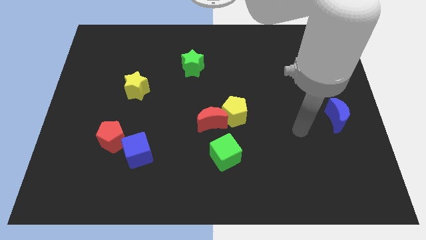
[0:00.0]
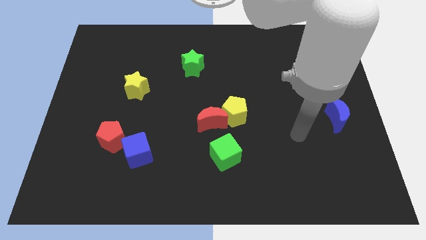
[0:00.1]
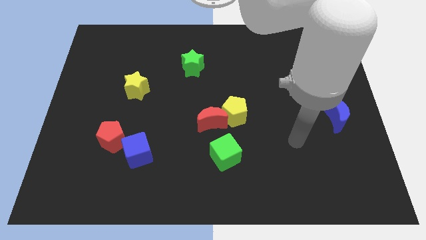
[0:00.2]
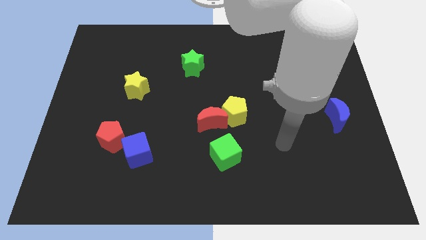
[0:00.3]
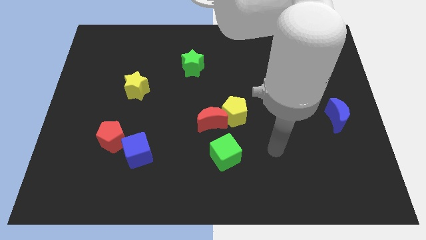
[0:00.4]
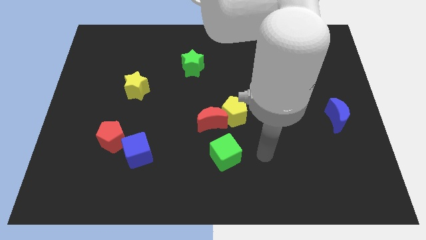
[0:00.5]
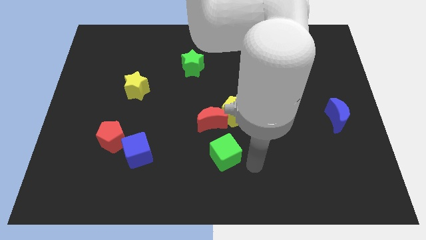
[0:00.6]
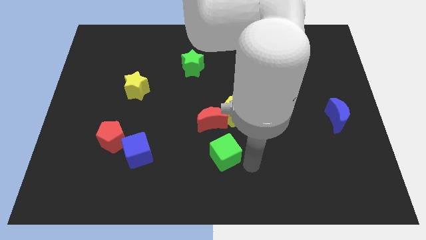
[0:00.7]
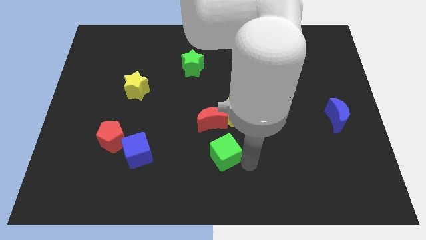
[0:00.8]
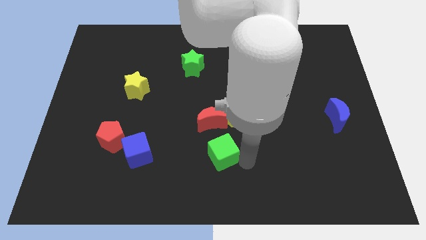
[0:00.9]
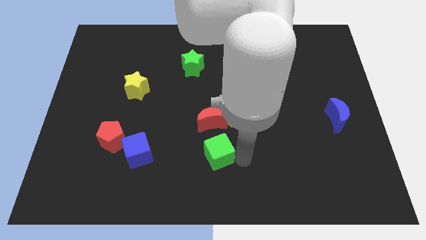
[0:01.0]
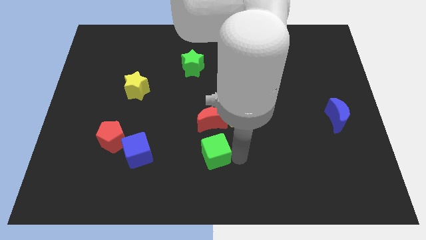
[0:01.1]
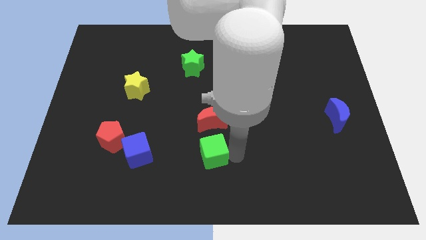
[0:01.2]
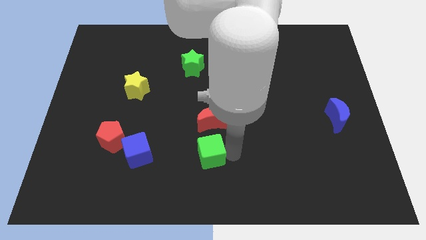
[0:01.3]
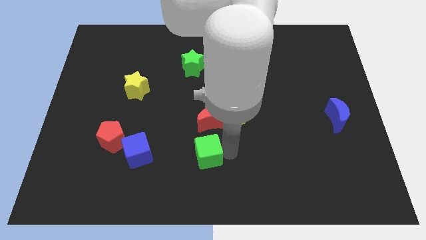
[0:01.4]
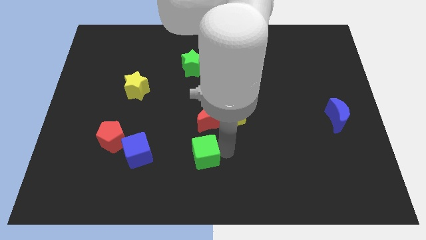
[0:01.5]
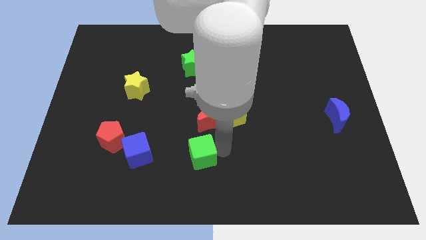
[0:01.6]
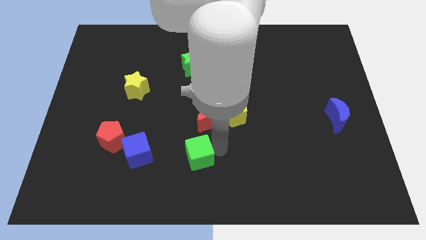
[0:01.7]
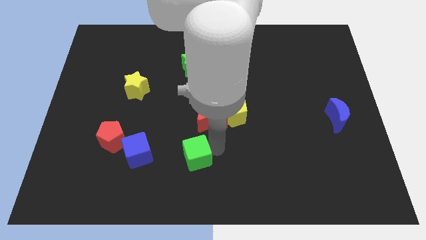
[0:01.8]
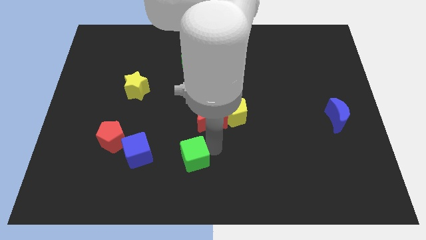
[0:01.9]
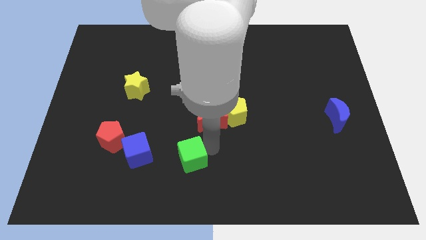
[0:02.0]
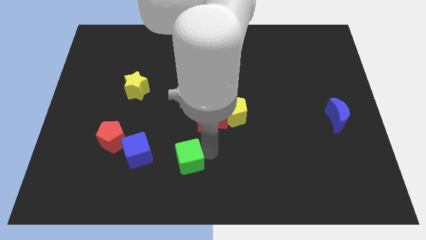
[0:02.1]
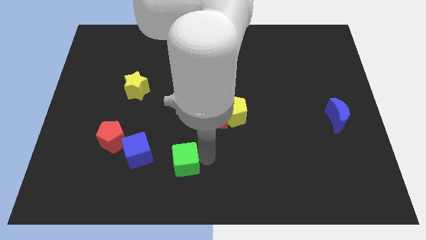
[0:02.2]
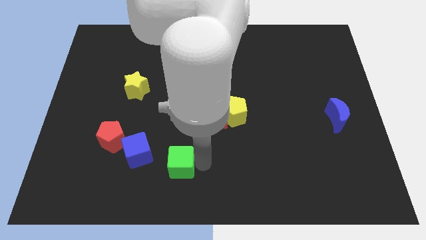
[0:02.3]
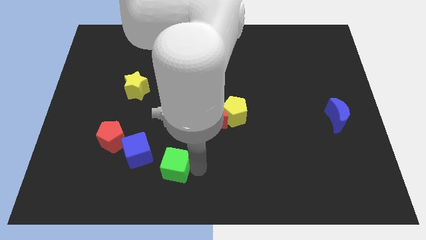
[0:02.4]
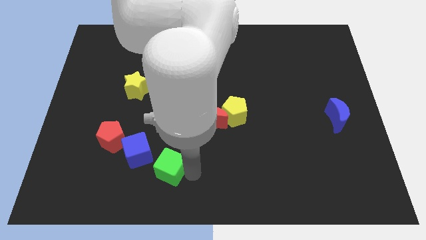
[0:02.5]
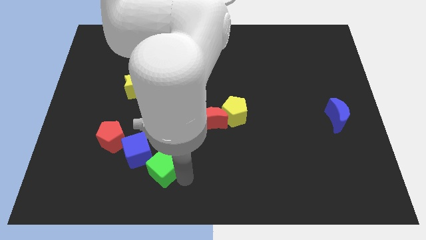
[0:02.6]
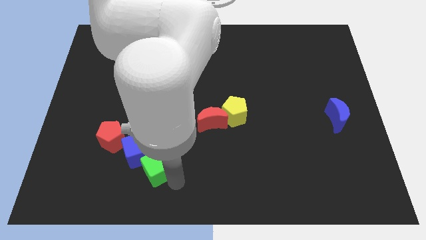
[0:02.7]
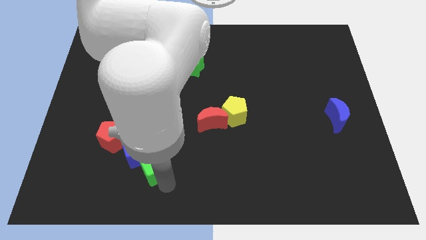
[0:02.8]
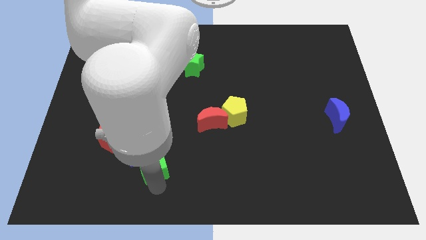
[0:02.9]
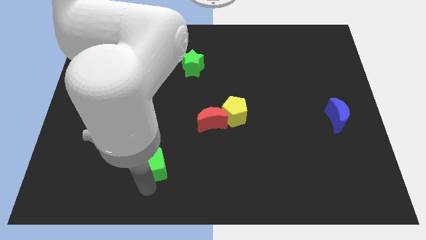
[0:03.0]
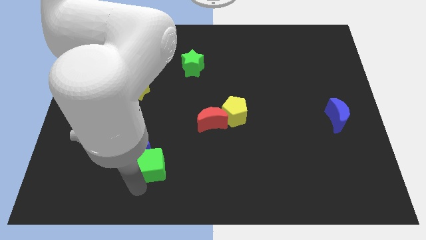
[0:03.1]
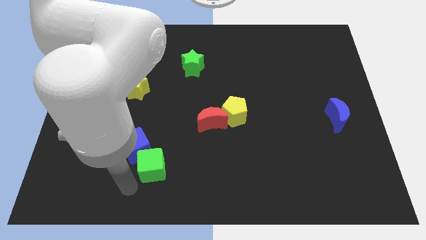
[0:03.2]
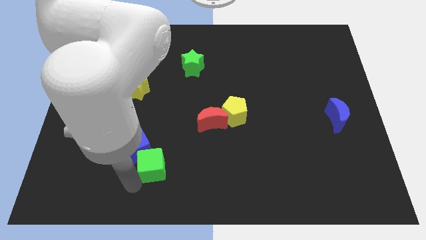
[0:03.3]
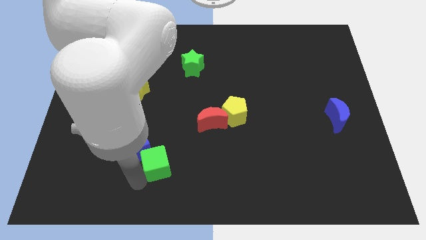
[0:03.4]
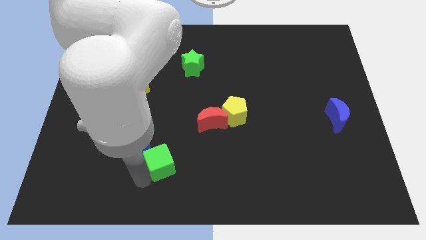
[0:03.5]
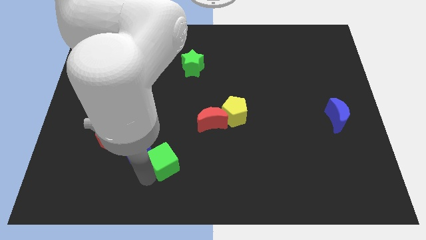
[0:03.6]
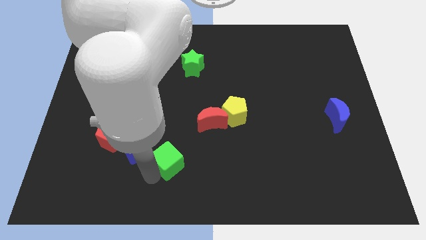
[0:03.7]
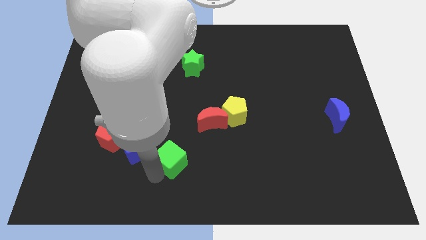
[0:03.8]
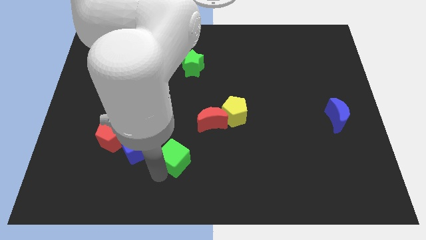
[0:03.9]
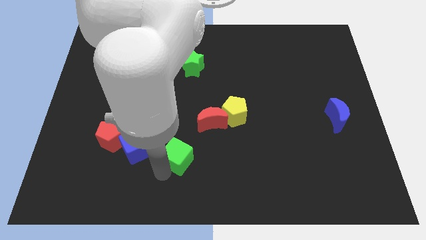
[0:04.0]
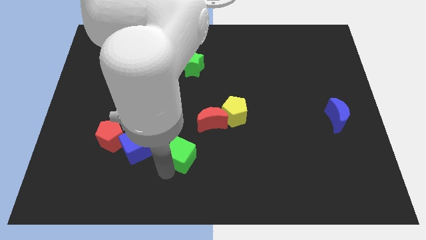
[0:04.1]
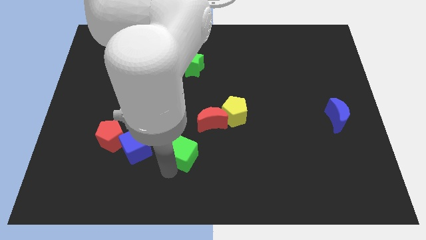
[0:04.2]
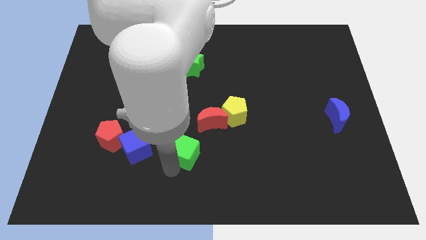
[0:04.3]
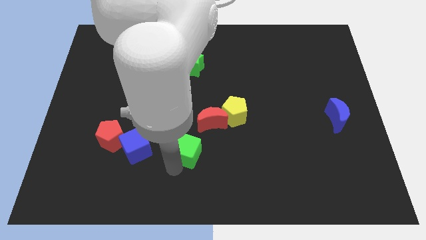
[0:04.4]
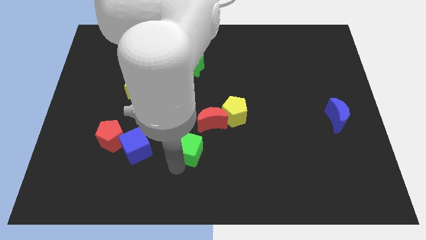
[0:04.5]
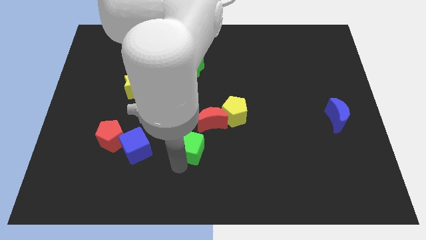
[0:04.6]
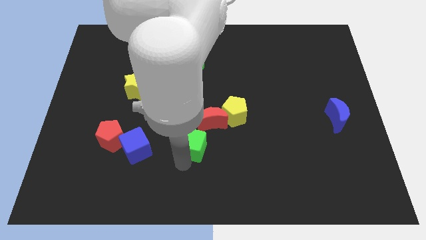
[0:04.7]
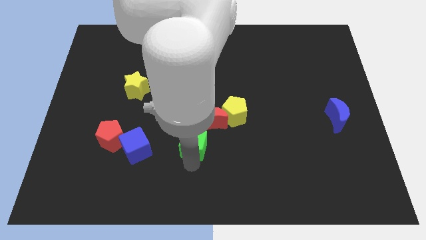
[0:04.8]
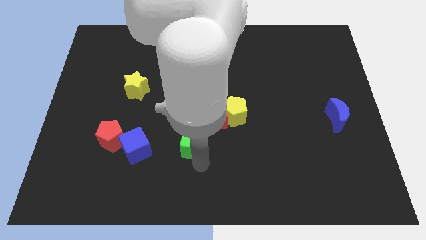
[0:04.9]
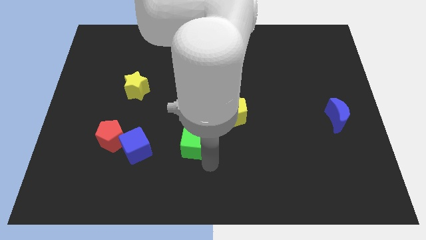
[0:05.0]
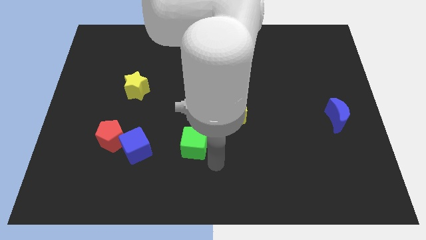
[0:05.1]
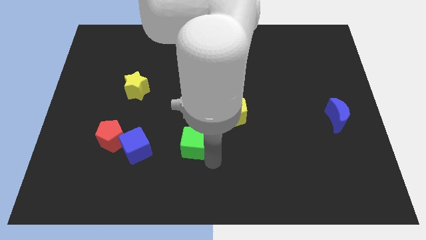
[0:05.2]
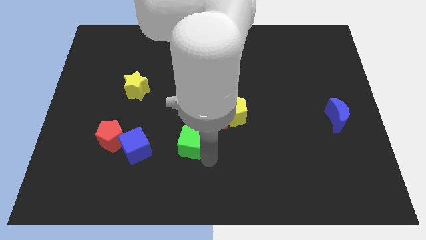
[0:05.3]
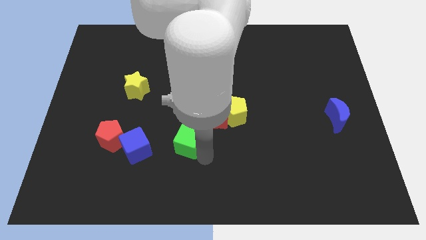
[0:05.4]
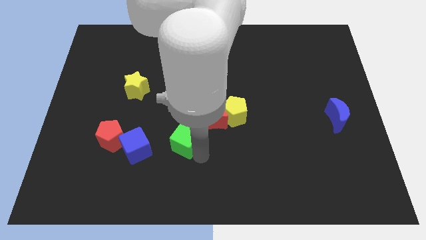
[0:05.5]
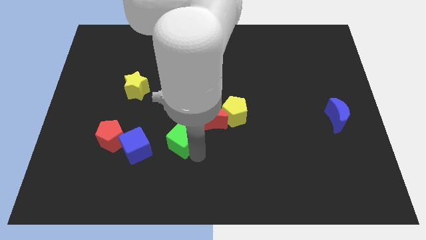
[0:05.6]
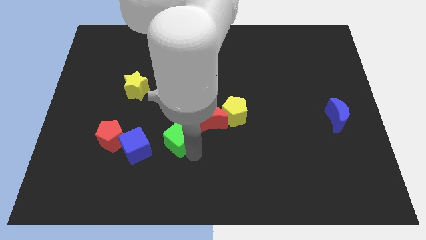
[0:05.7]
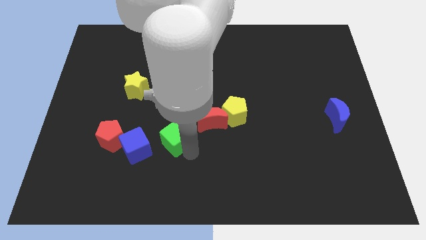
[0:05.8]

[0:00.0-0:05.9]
push the green cube left of the red moon

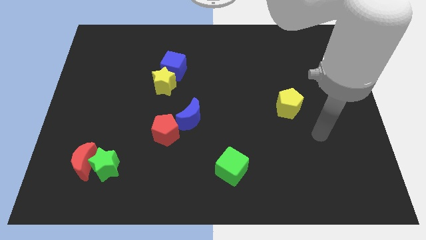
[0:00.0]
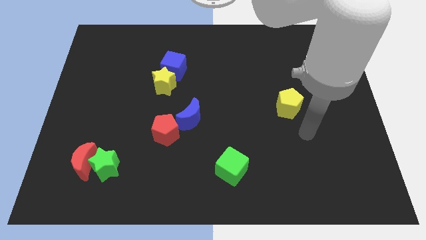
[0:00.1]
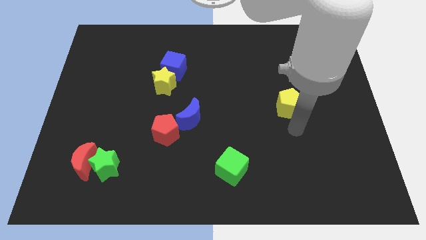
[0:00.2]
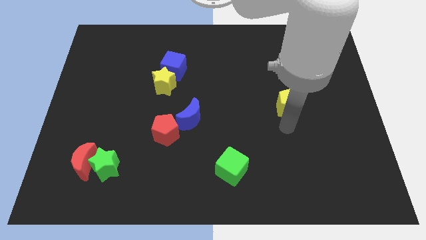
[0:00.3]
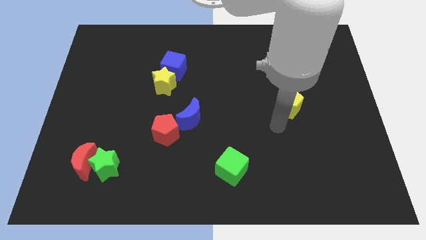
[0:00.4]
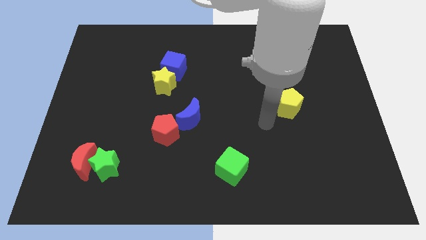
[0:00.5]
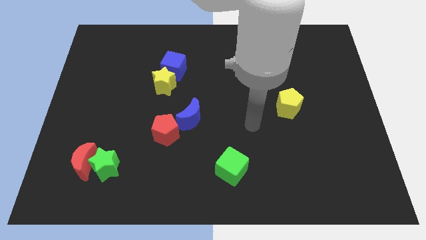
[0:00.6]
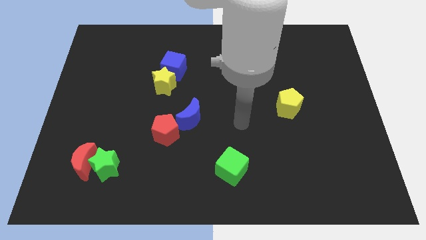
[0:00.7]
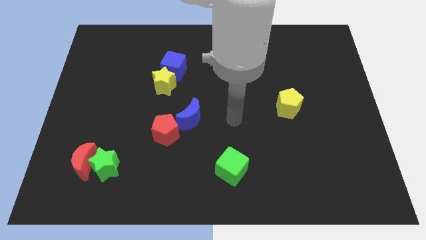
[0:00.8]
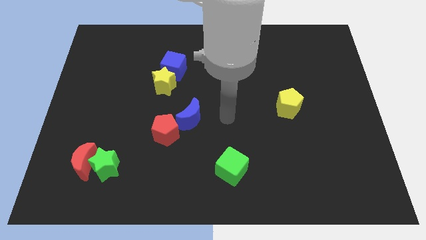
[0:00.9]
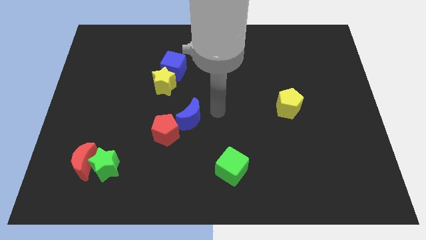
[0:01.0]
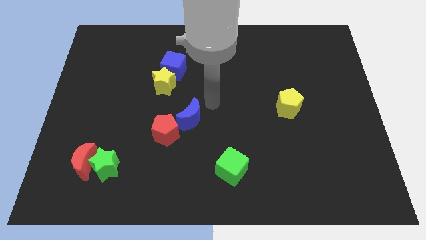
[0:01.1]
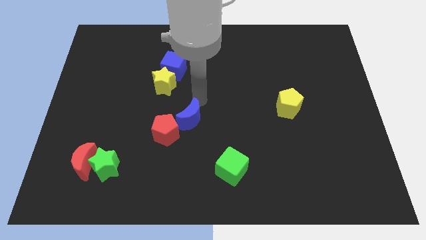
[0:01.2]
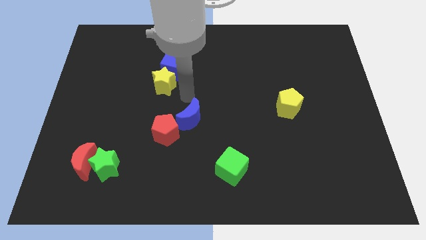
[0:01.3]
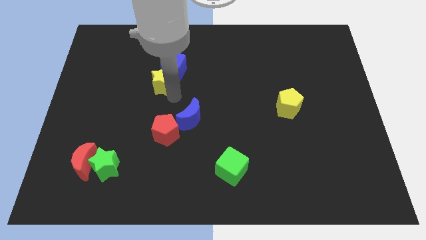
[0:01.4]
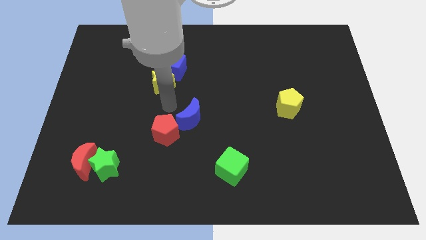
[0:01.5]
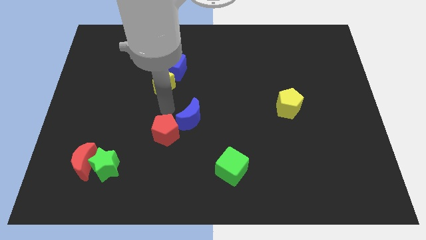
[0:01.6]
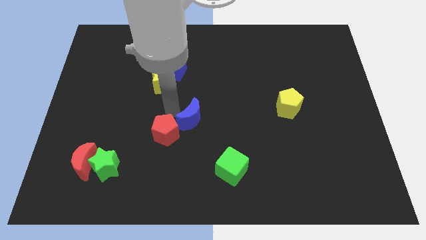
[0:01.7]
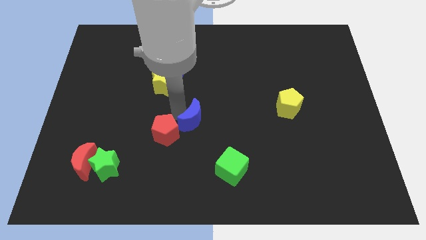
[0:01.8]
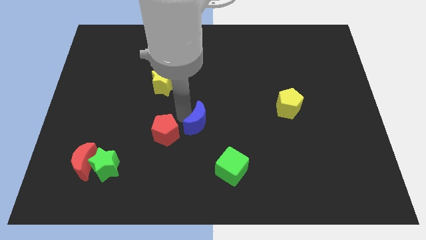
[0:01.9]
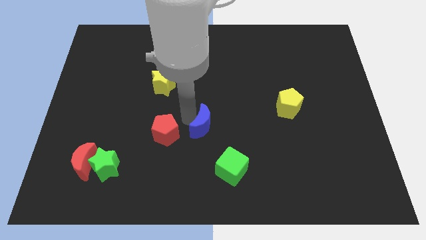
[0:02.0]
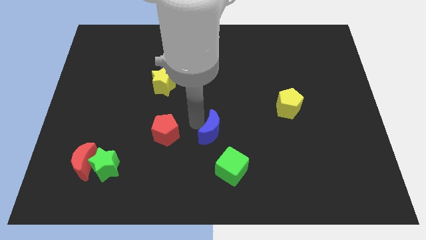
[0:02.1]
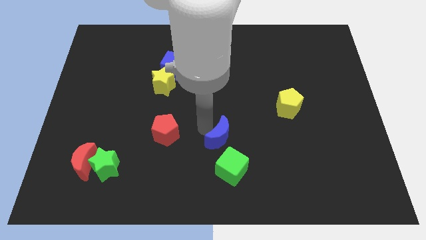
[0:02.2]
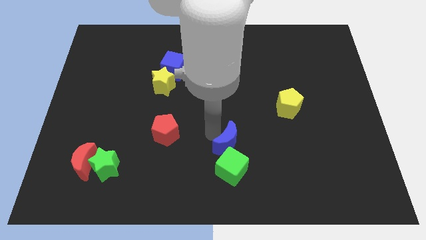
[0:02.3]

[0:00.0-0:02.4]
push the blue moon diagonally up and to the right of the green cube
